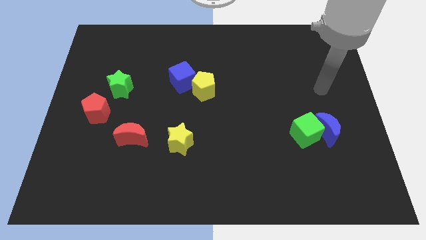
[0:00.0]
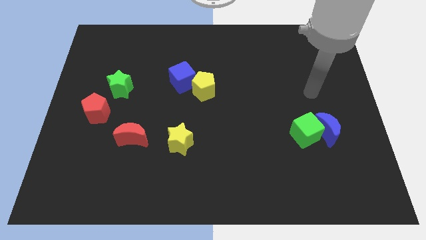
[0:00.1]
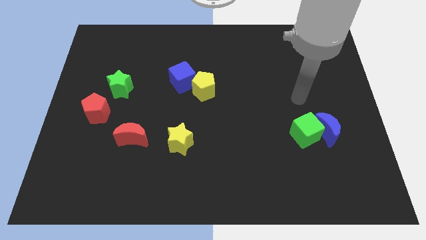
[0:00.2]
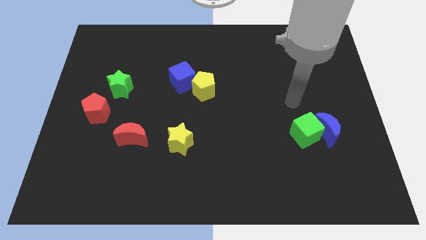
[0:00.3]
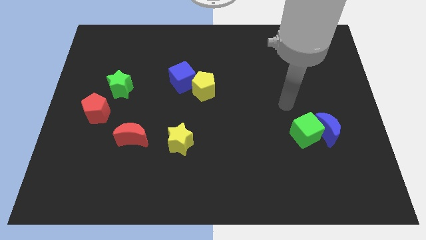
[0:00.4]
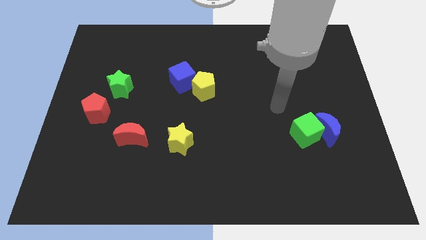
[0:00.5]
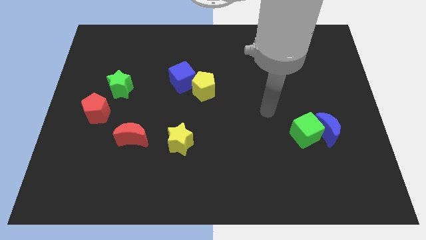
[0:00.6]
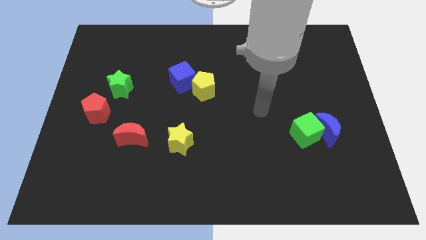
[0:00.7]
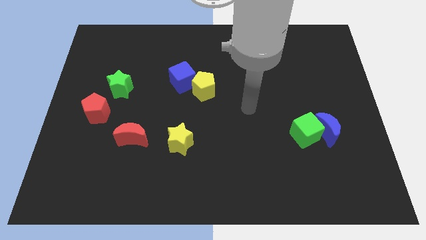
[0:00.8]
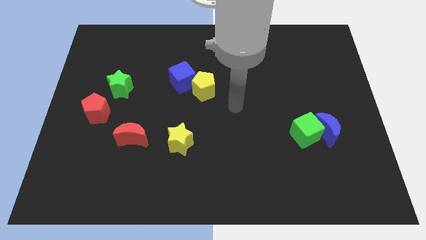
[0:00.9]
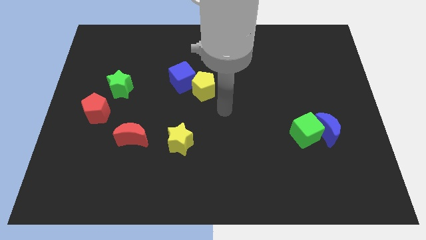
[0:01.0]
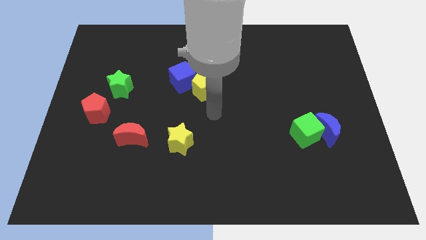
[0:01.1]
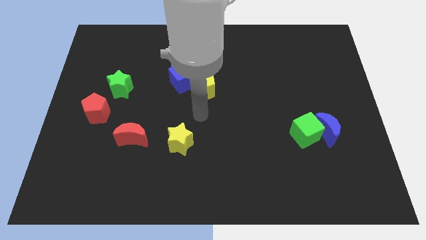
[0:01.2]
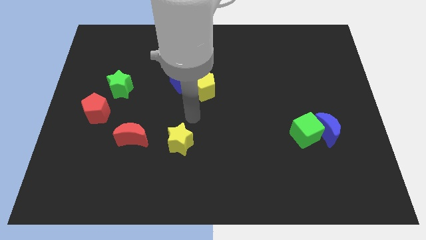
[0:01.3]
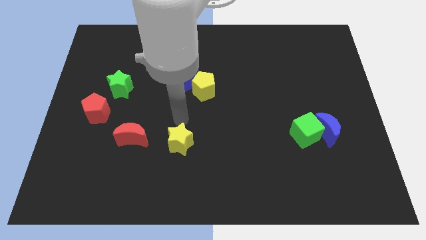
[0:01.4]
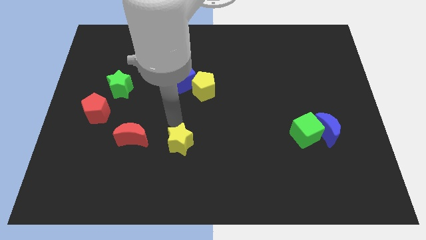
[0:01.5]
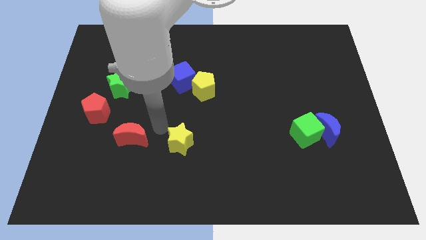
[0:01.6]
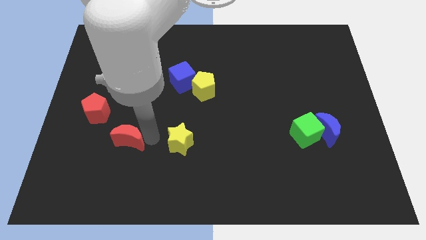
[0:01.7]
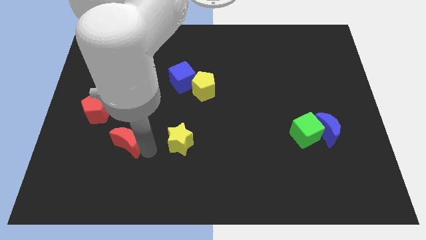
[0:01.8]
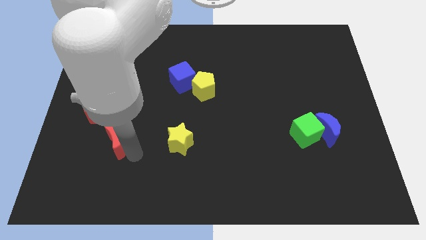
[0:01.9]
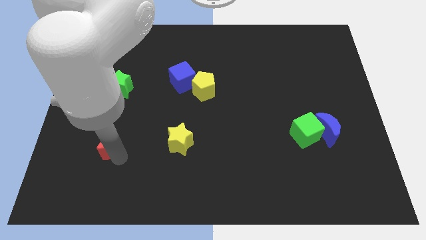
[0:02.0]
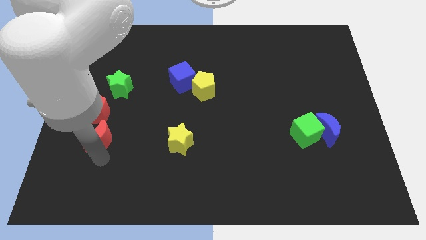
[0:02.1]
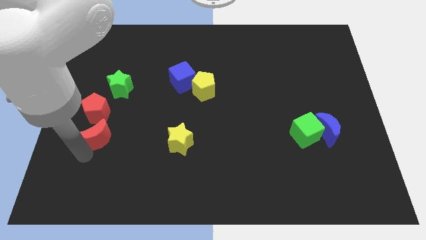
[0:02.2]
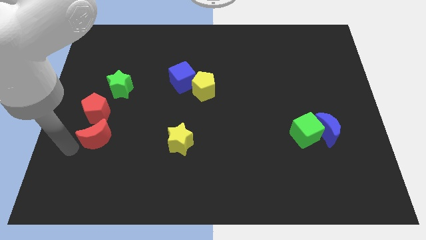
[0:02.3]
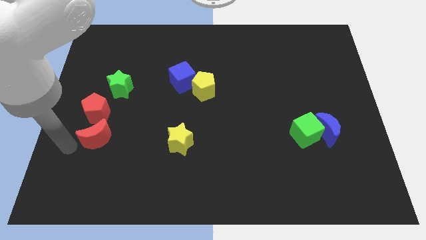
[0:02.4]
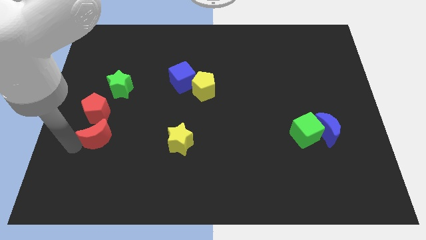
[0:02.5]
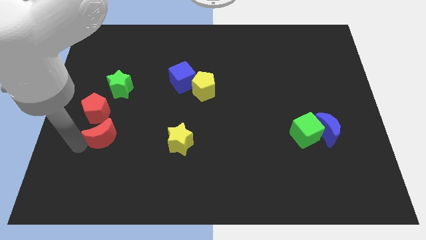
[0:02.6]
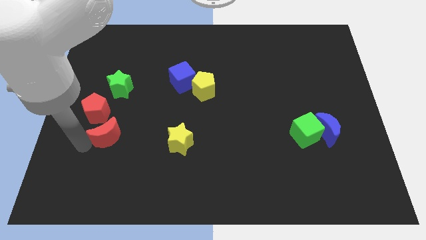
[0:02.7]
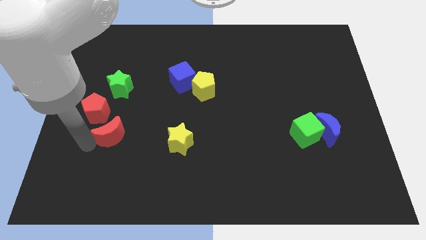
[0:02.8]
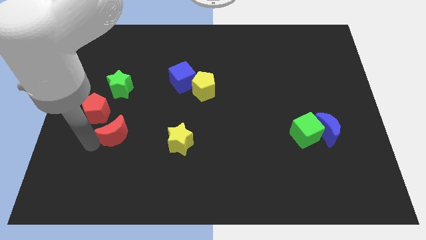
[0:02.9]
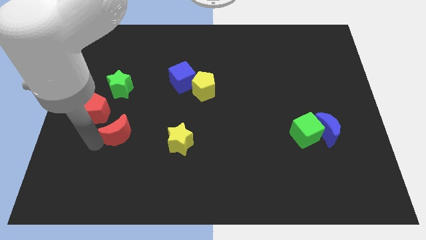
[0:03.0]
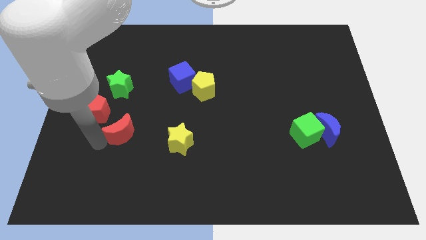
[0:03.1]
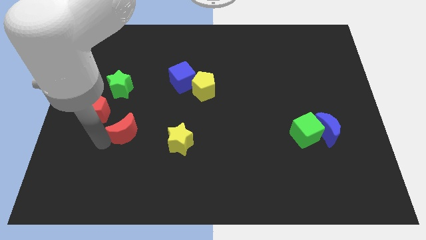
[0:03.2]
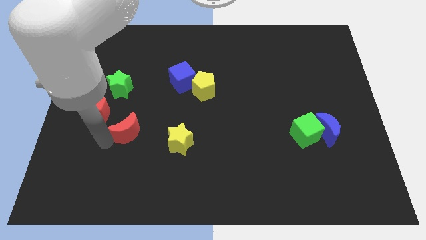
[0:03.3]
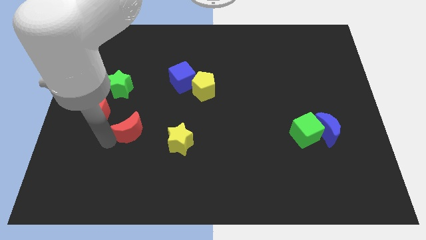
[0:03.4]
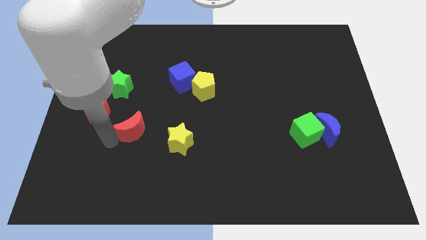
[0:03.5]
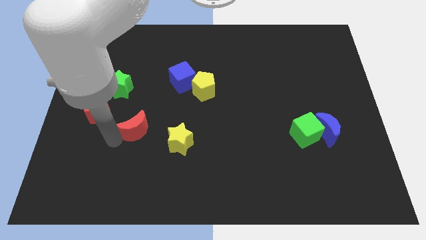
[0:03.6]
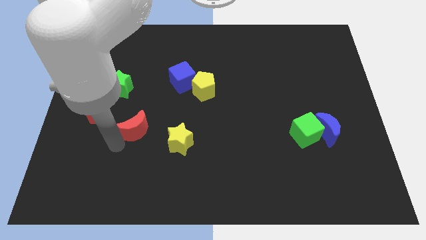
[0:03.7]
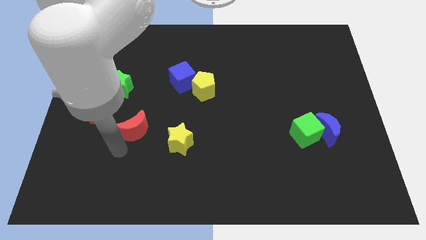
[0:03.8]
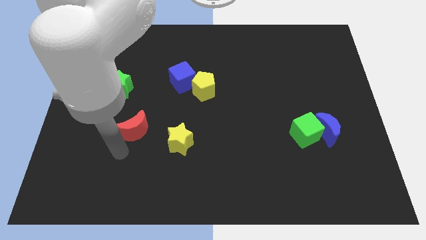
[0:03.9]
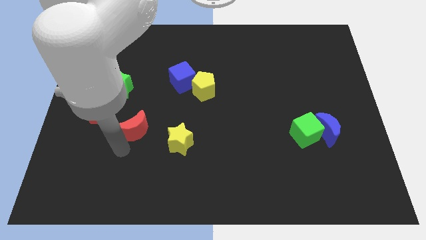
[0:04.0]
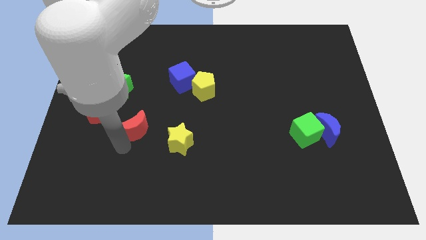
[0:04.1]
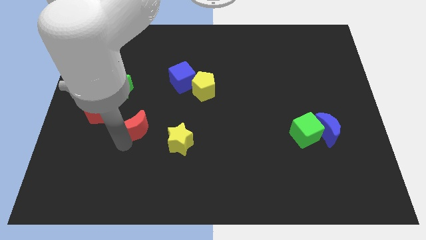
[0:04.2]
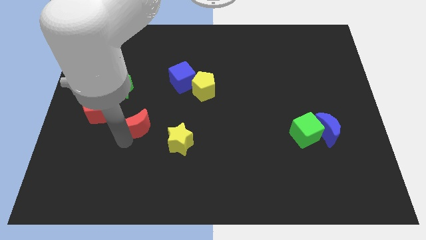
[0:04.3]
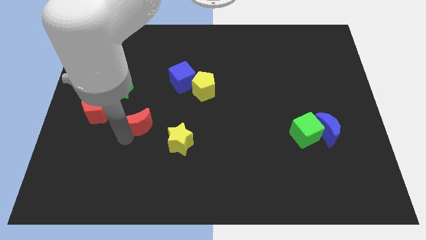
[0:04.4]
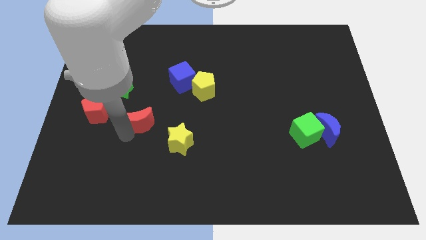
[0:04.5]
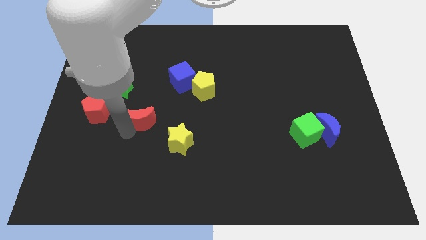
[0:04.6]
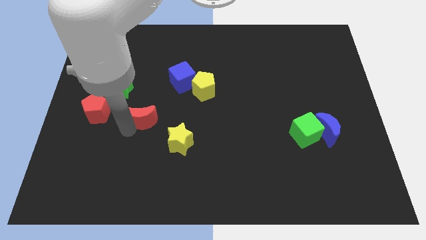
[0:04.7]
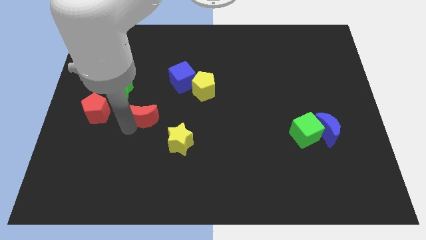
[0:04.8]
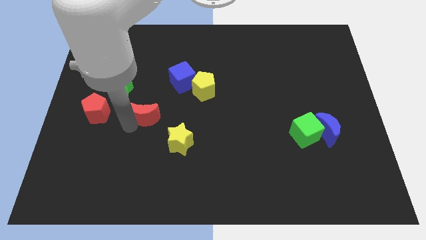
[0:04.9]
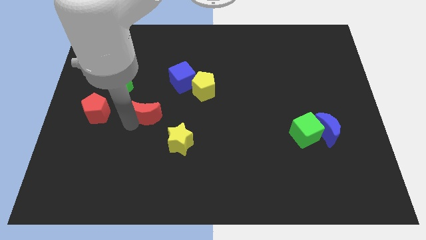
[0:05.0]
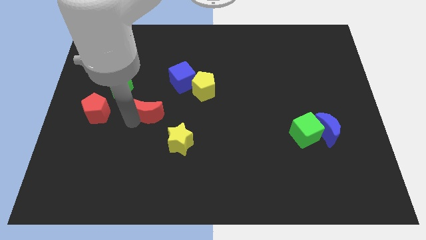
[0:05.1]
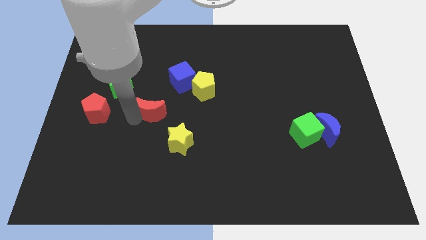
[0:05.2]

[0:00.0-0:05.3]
slide the red moon to the bottom left side of the blue cube

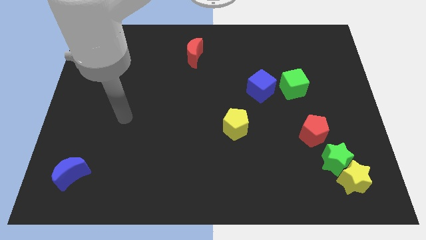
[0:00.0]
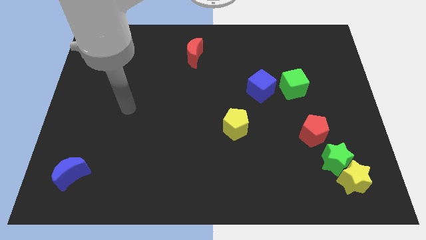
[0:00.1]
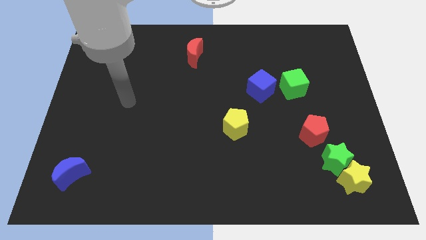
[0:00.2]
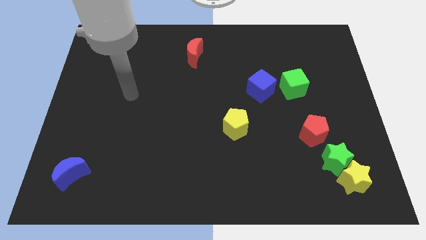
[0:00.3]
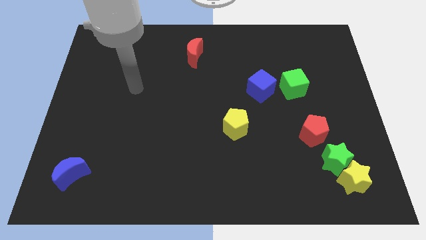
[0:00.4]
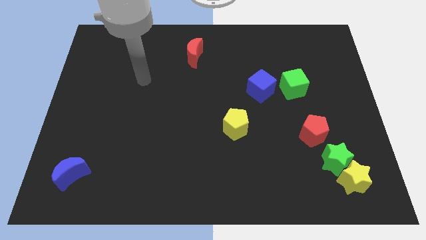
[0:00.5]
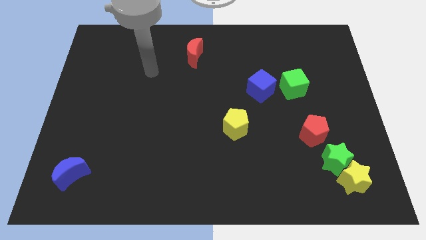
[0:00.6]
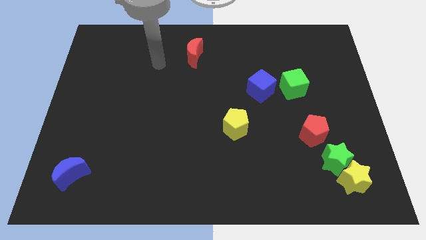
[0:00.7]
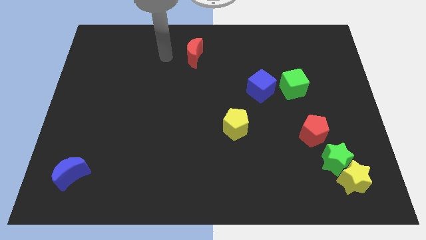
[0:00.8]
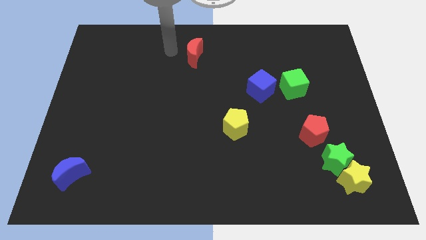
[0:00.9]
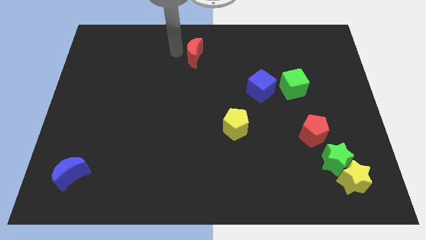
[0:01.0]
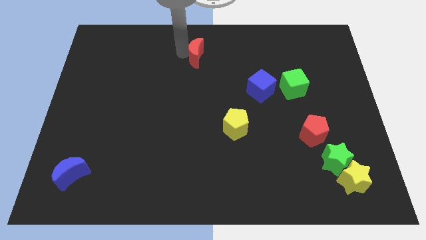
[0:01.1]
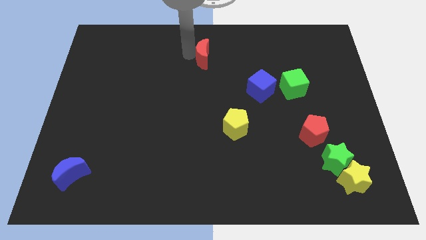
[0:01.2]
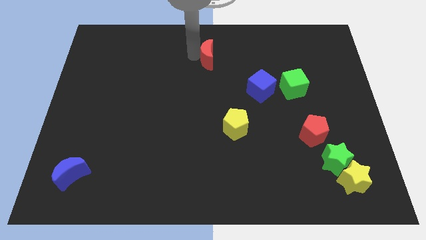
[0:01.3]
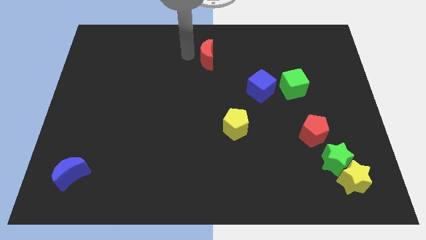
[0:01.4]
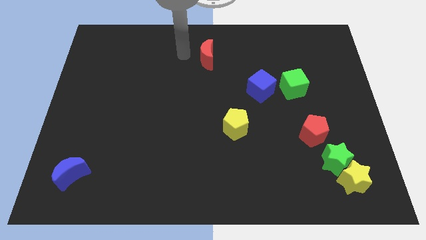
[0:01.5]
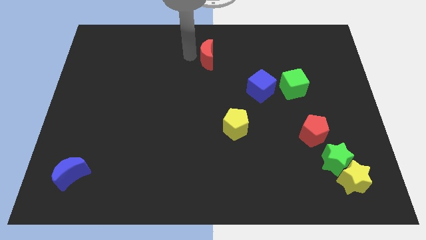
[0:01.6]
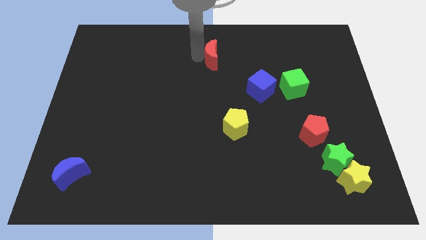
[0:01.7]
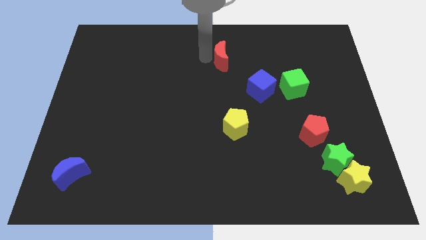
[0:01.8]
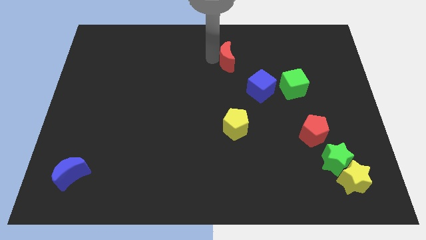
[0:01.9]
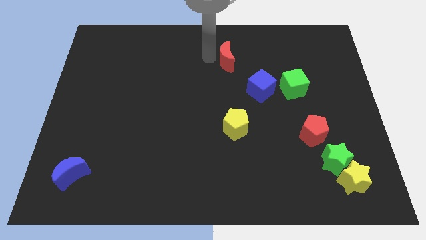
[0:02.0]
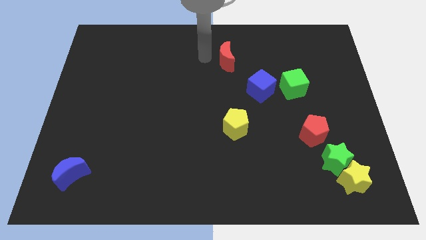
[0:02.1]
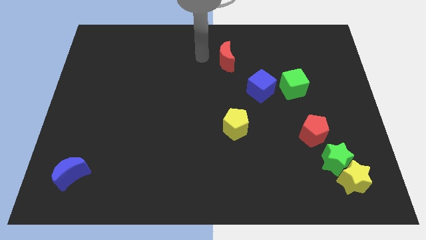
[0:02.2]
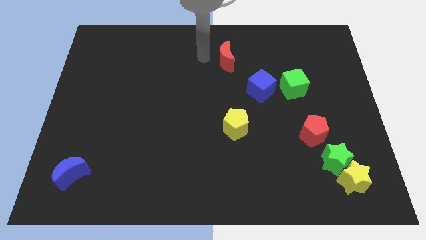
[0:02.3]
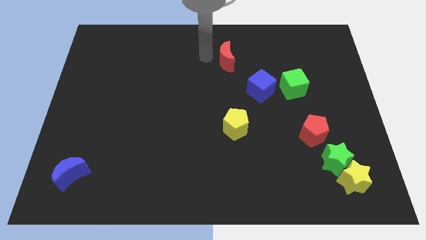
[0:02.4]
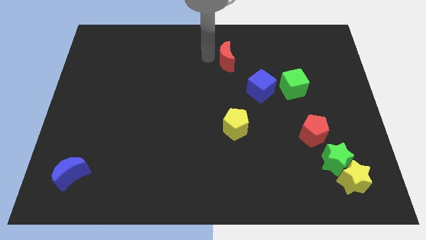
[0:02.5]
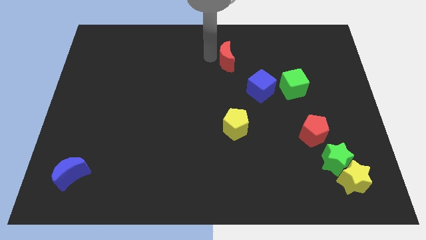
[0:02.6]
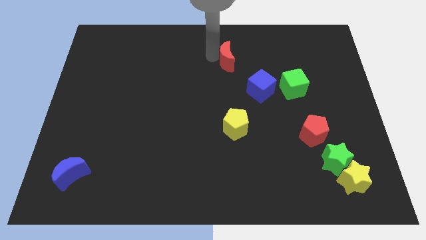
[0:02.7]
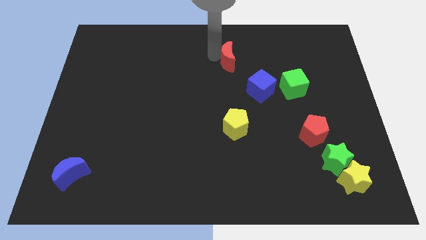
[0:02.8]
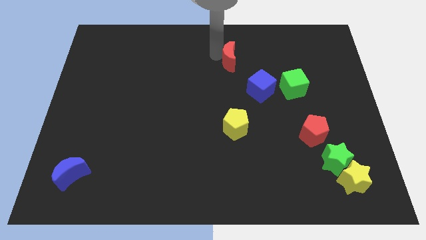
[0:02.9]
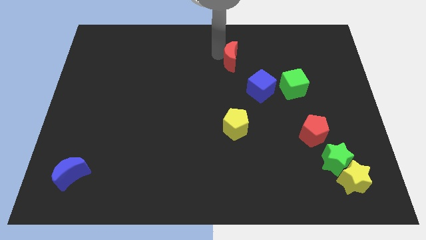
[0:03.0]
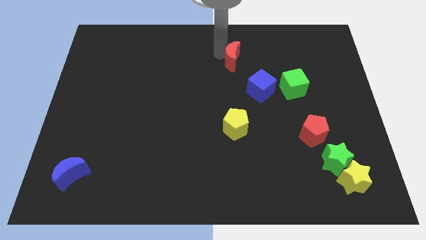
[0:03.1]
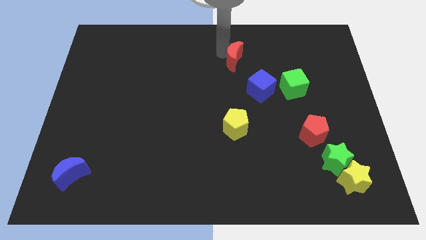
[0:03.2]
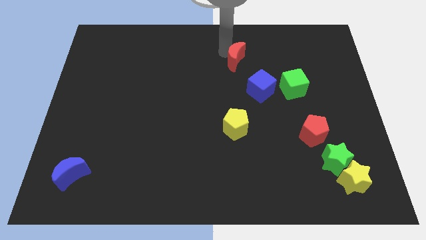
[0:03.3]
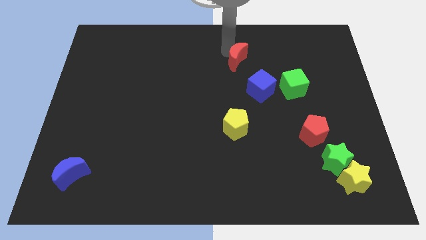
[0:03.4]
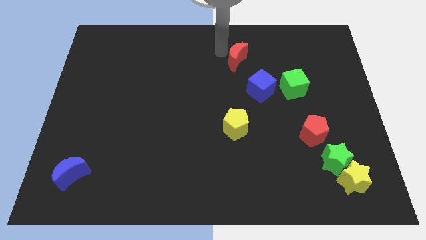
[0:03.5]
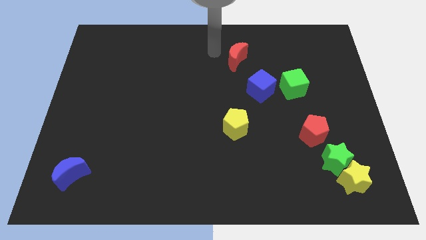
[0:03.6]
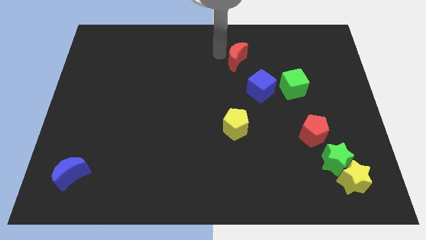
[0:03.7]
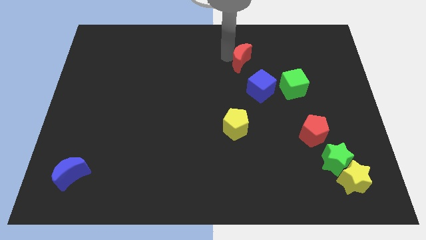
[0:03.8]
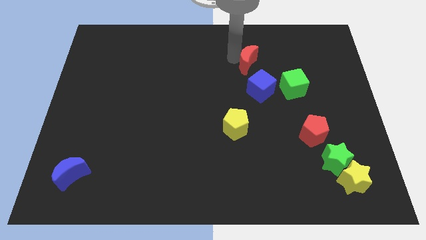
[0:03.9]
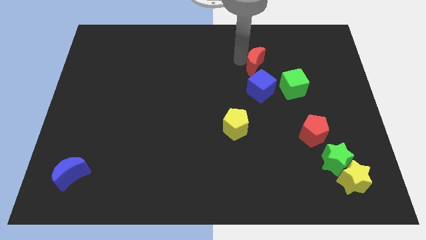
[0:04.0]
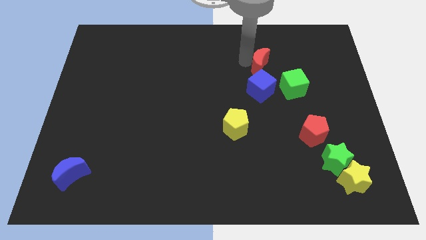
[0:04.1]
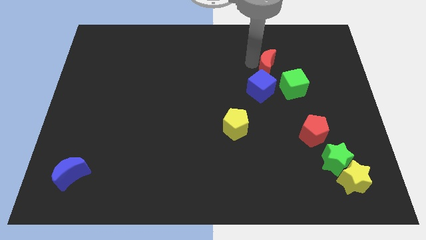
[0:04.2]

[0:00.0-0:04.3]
move the red moon to the top right of the blue cube
